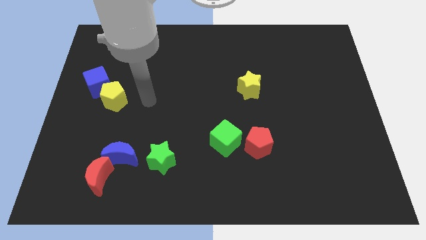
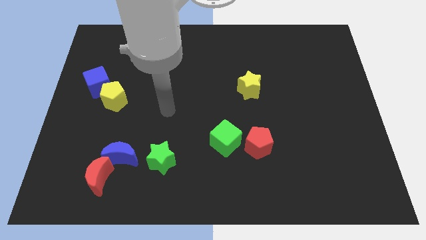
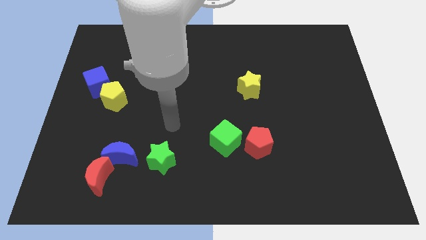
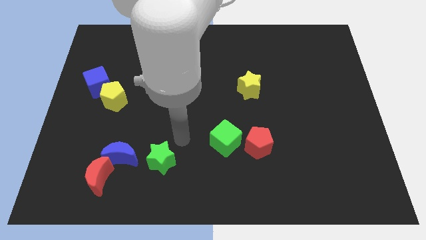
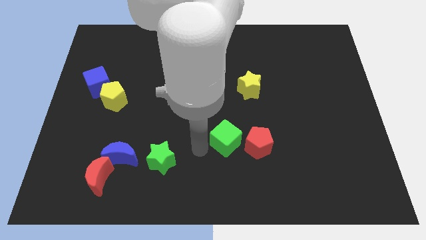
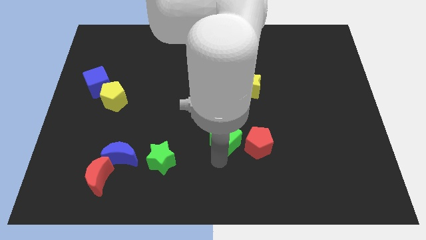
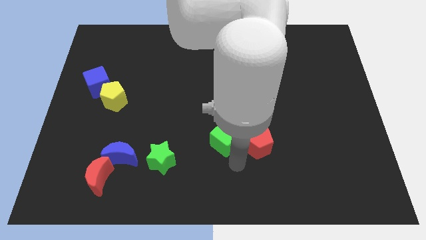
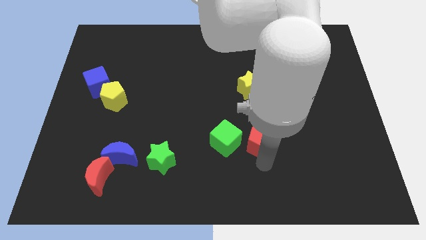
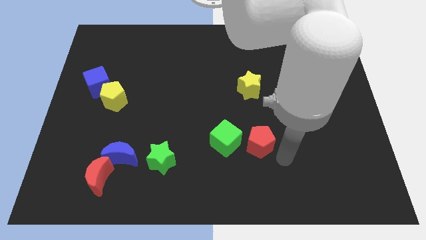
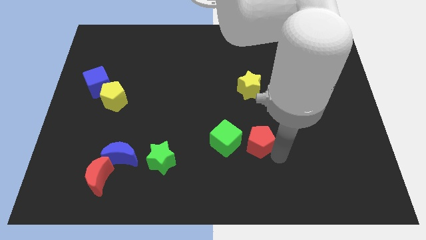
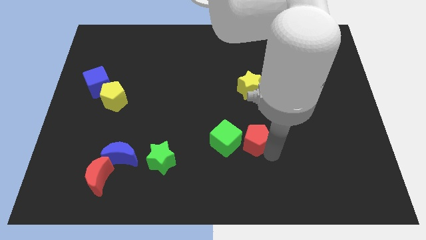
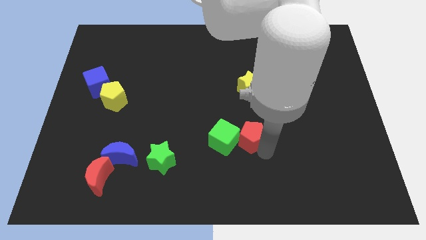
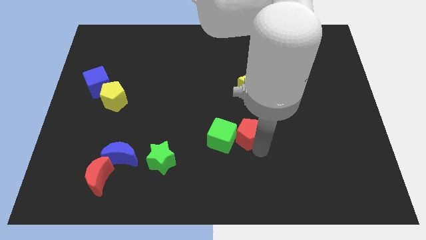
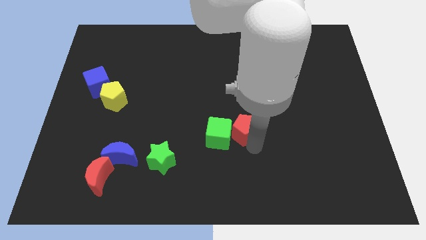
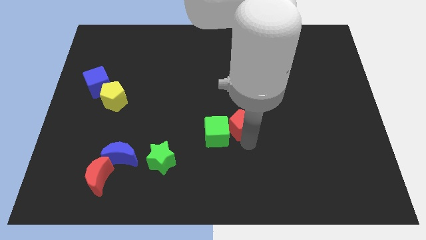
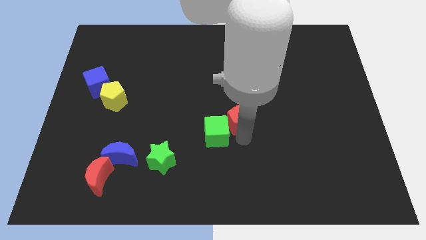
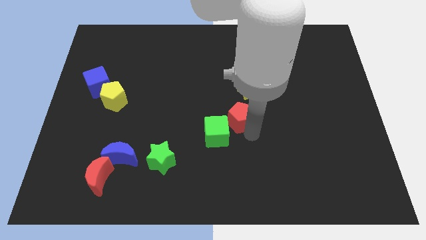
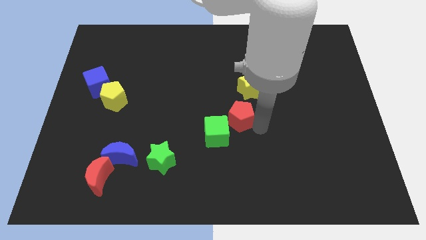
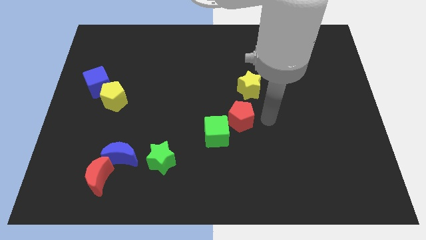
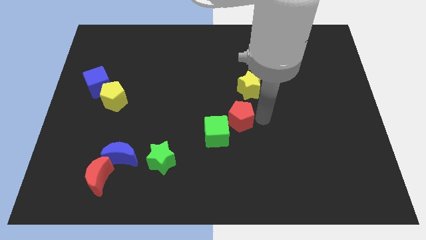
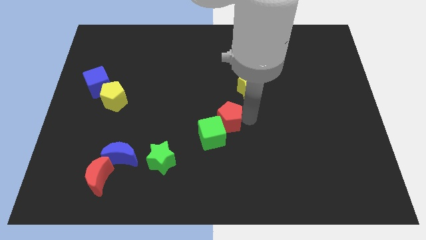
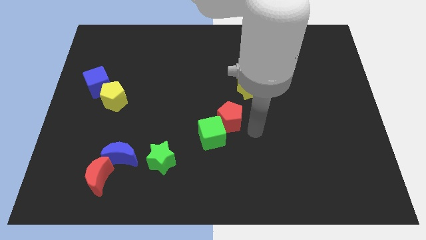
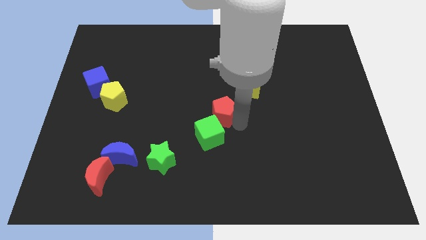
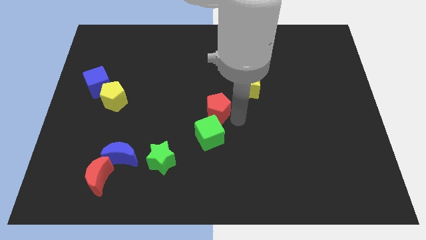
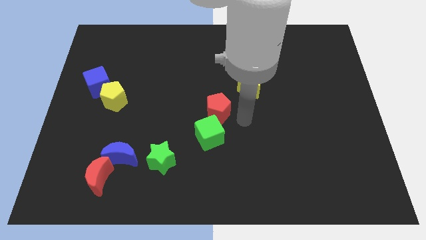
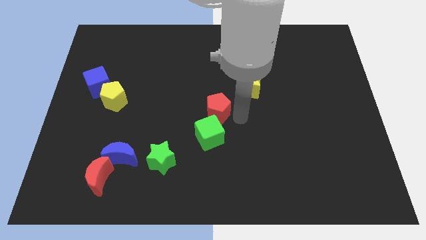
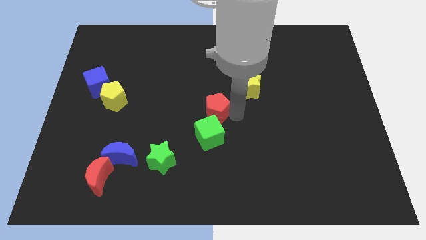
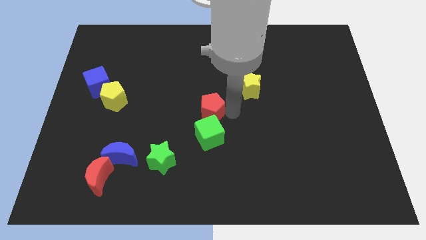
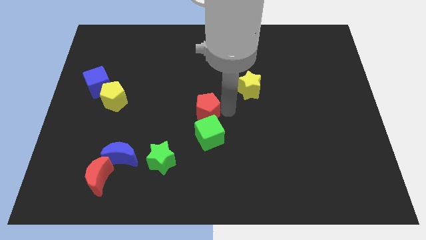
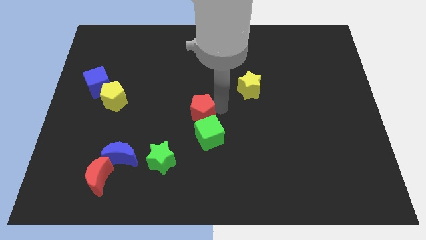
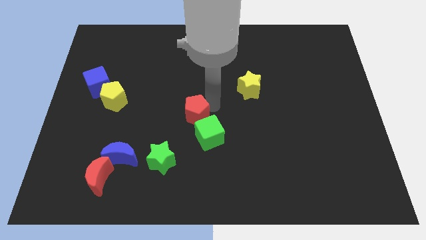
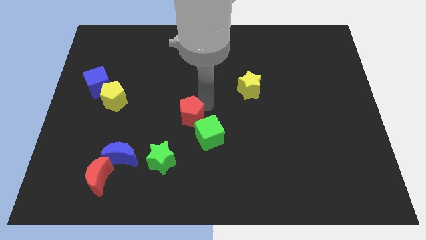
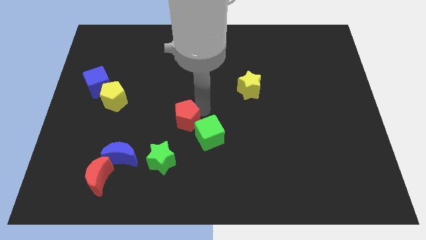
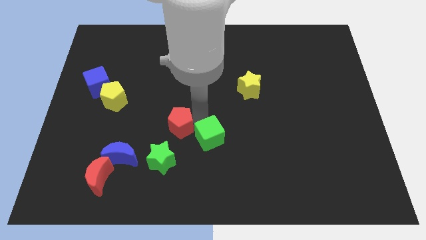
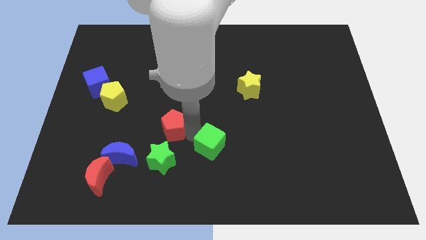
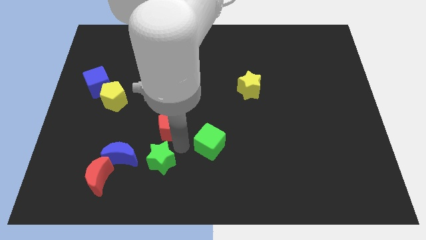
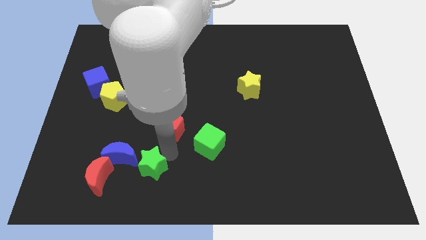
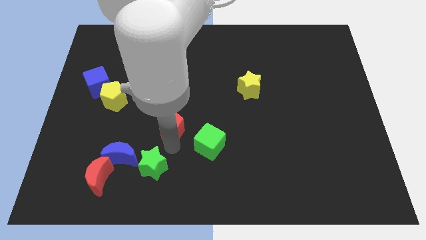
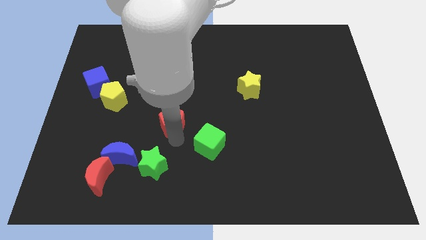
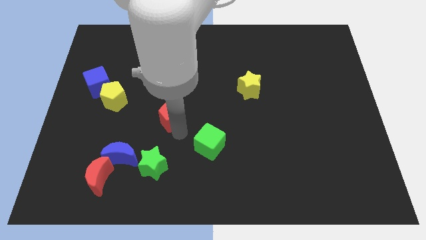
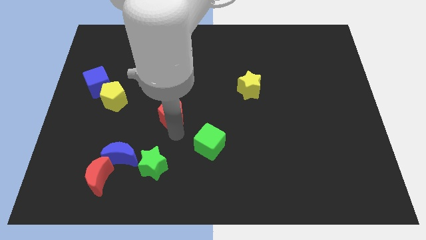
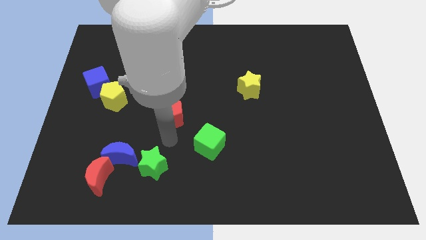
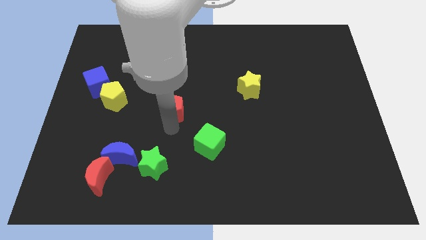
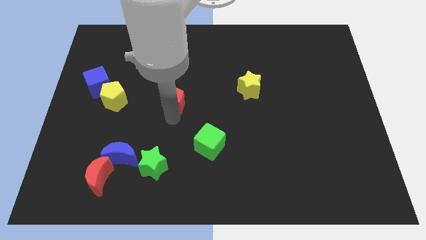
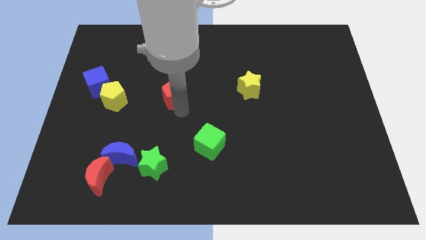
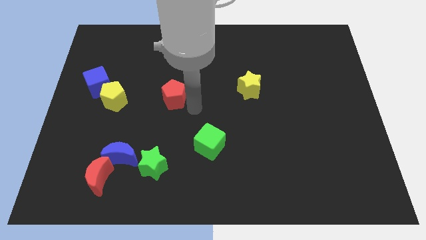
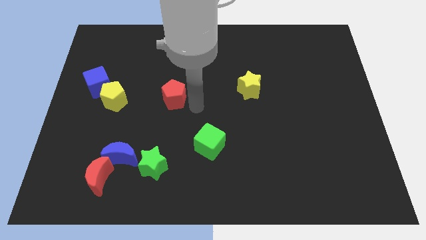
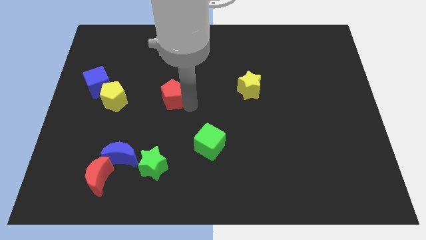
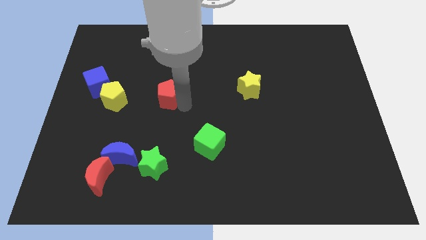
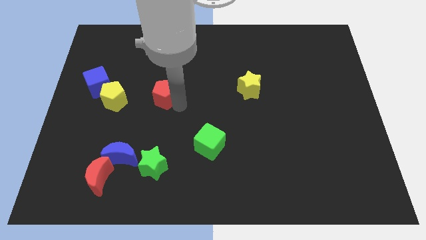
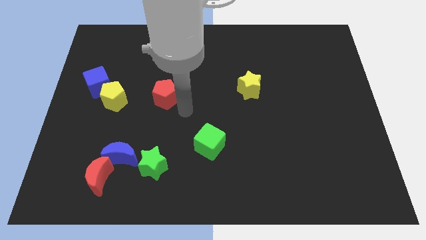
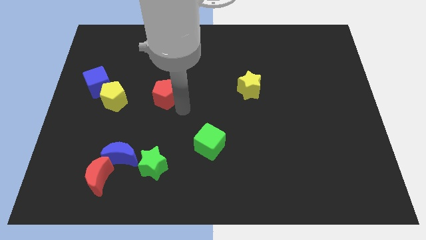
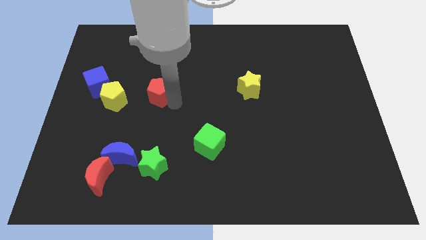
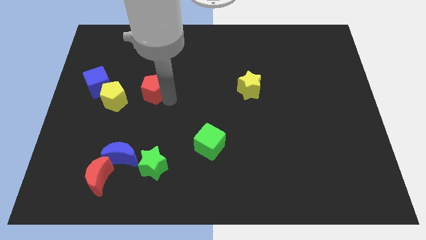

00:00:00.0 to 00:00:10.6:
slide the red pentagon just right of the blue cube

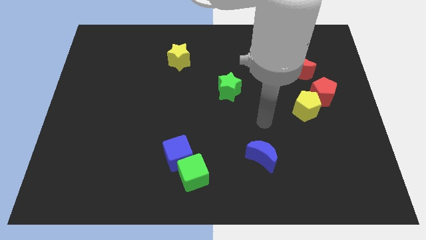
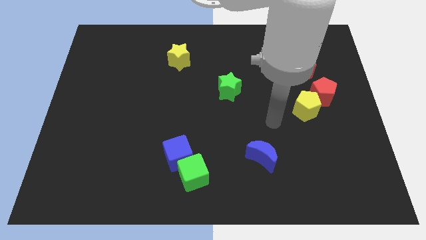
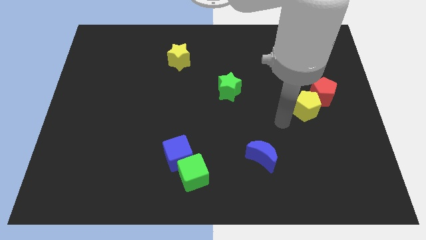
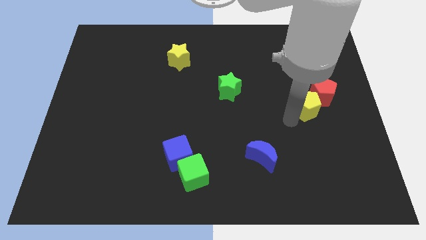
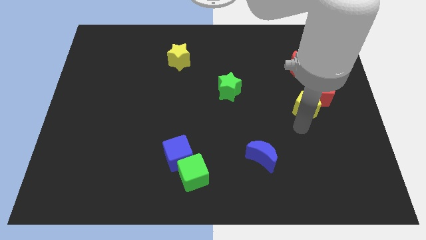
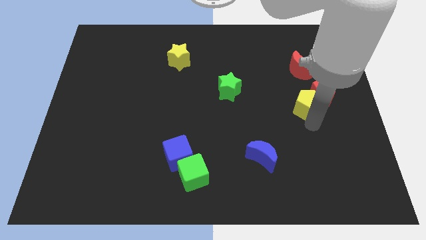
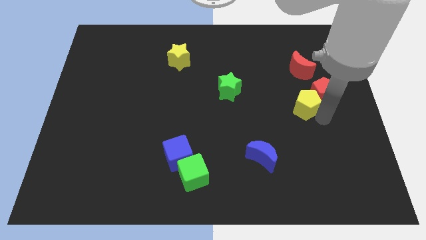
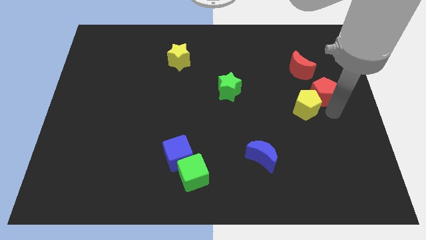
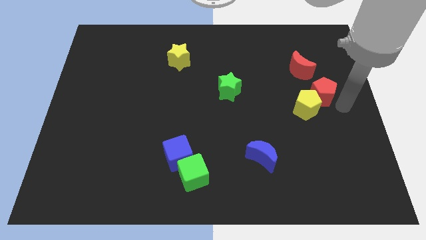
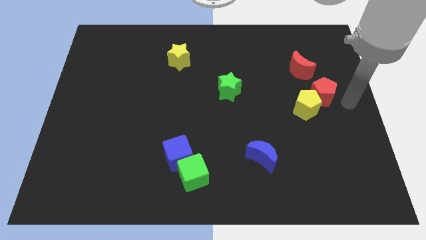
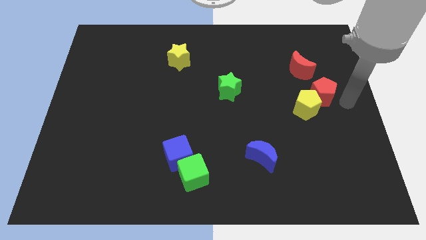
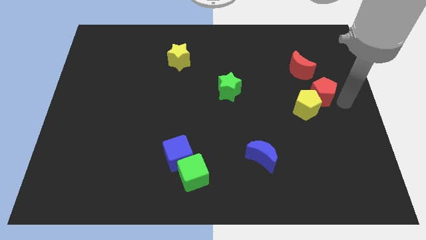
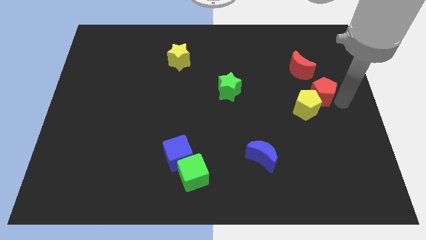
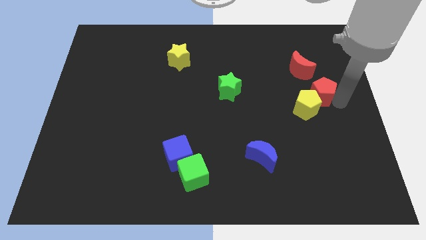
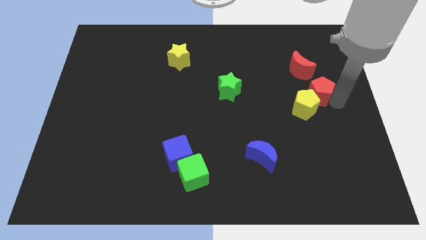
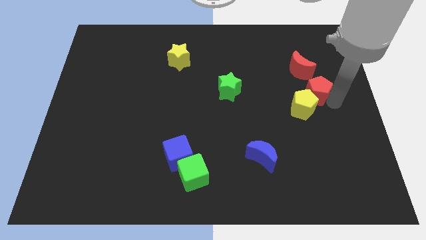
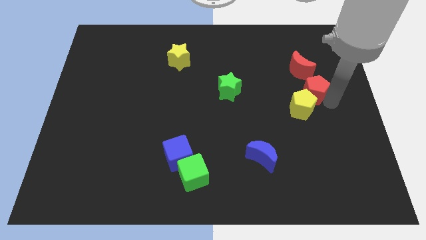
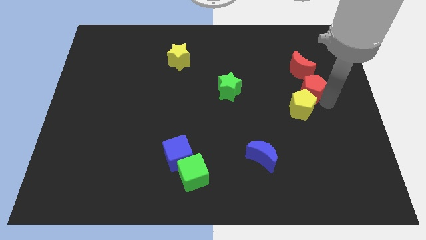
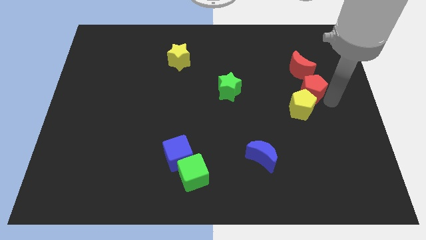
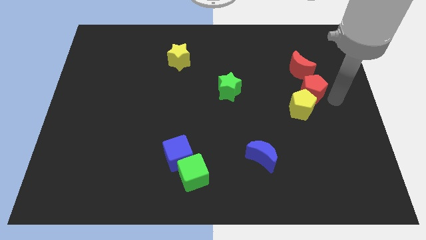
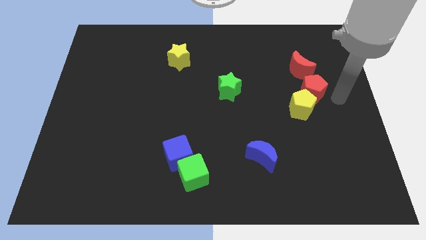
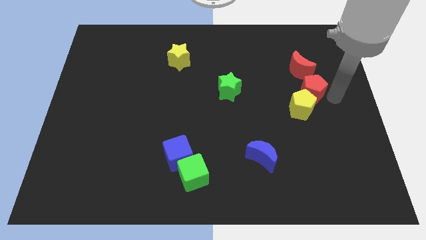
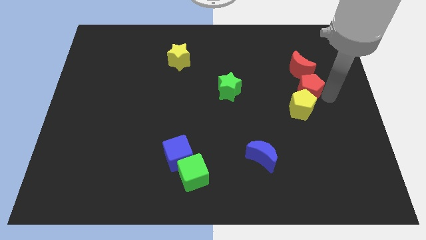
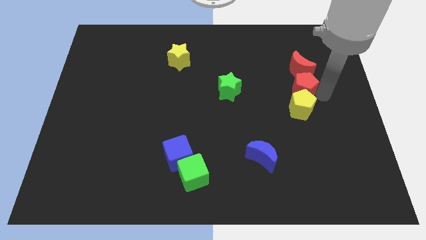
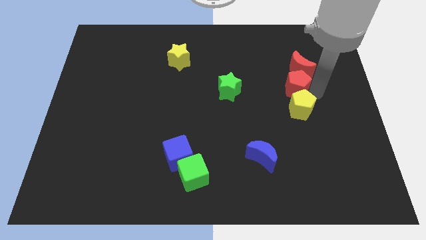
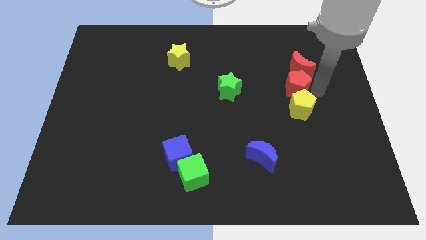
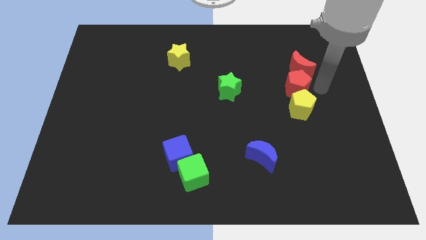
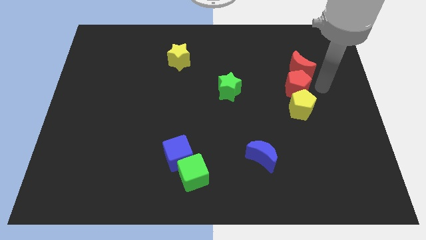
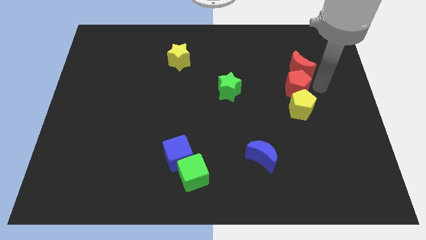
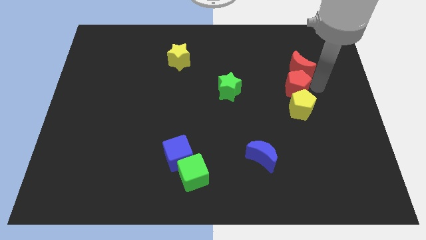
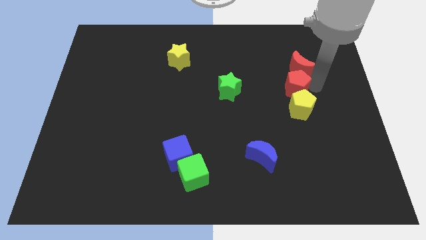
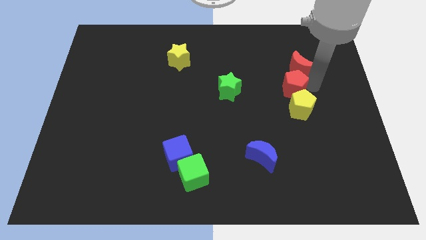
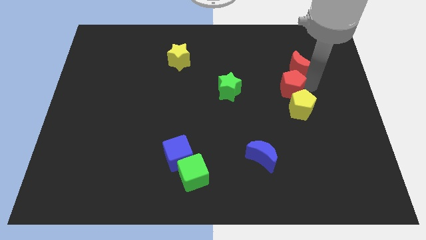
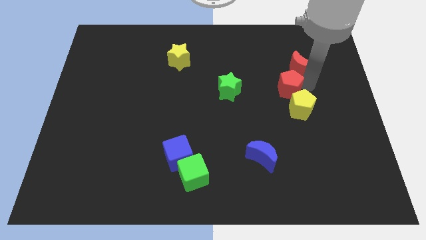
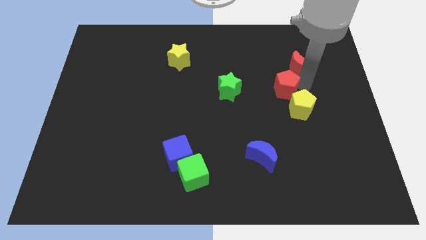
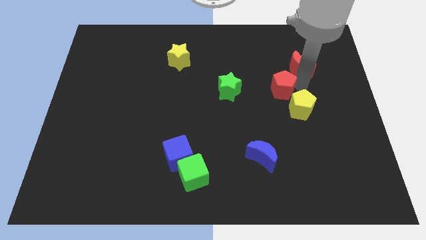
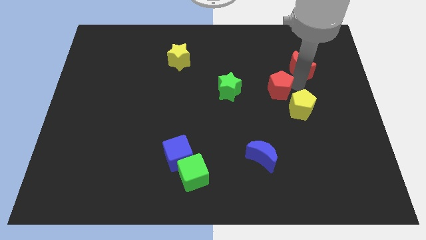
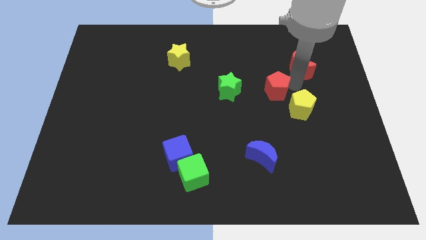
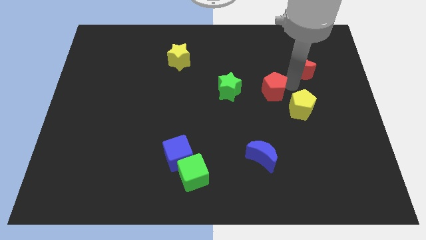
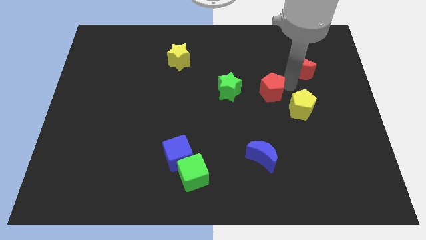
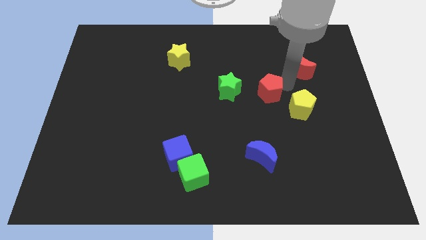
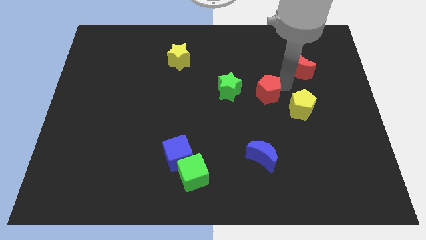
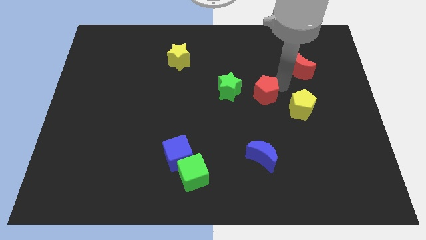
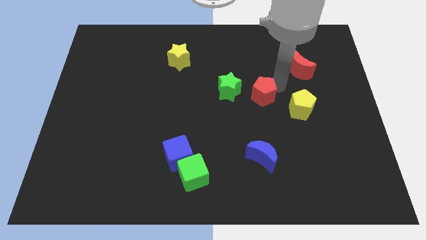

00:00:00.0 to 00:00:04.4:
put the red pentagon to the bottom right of the green star
